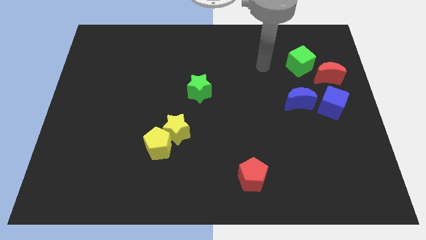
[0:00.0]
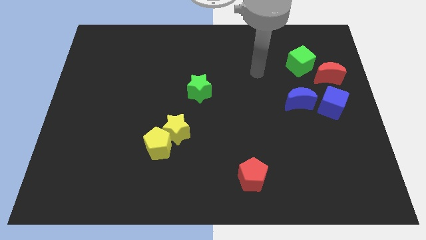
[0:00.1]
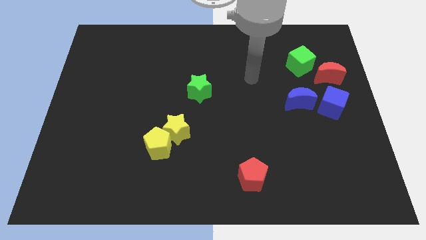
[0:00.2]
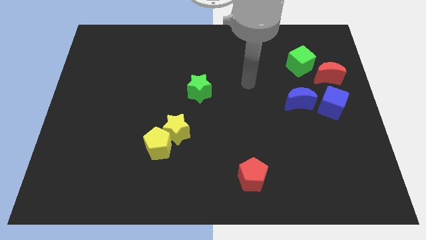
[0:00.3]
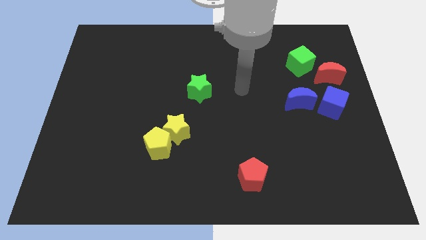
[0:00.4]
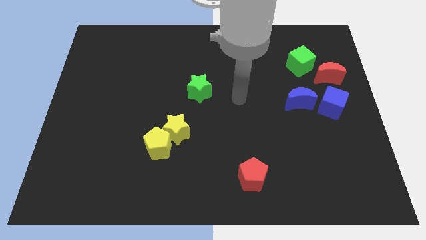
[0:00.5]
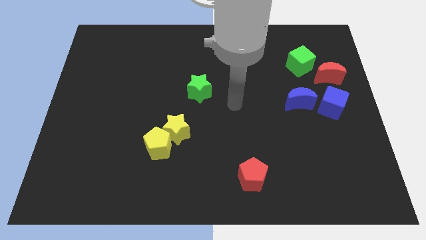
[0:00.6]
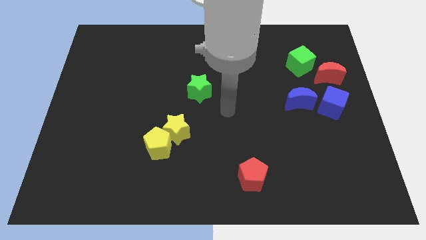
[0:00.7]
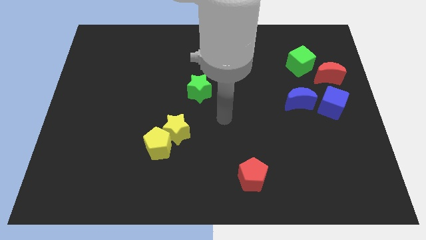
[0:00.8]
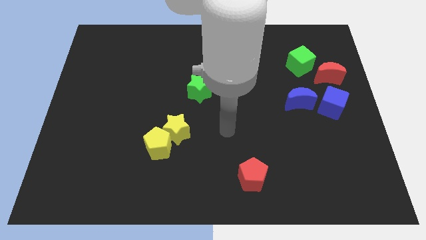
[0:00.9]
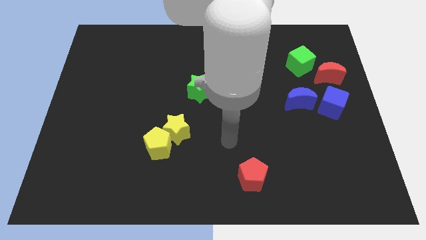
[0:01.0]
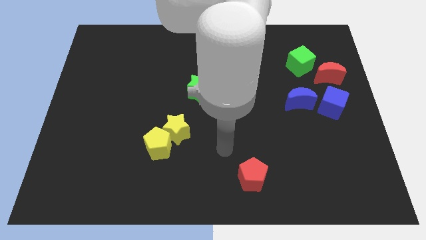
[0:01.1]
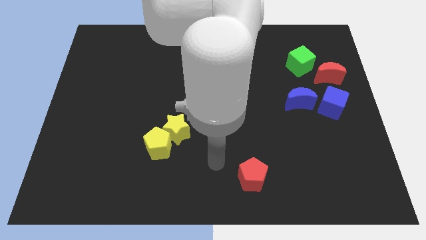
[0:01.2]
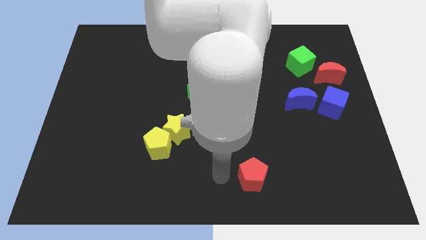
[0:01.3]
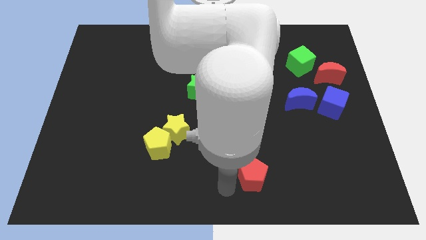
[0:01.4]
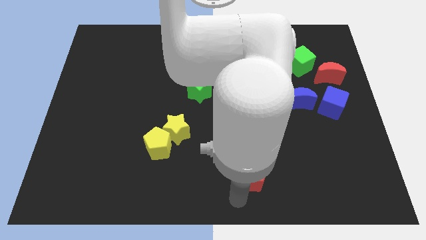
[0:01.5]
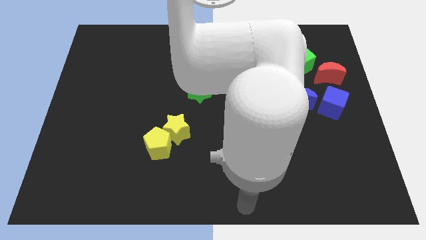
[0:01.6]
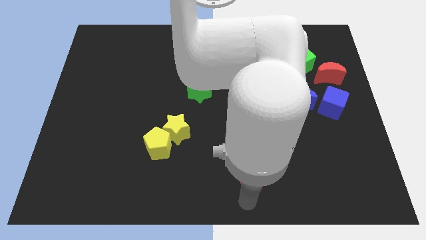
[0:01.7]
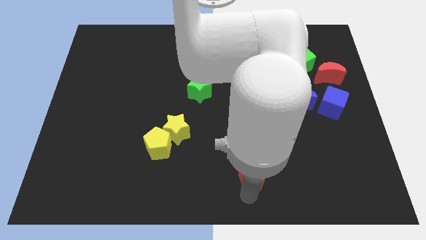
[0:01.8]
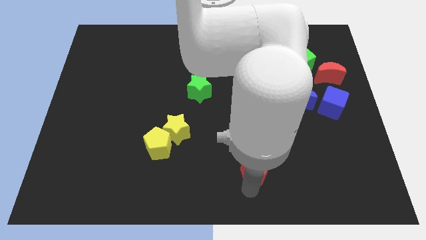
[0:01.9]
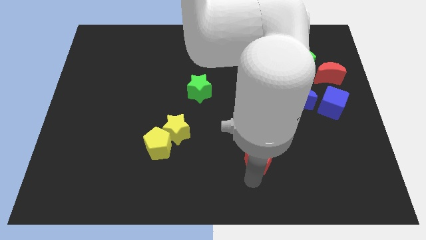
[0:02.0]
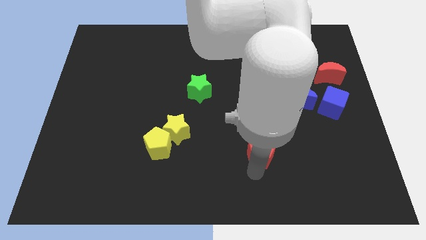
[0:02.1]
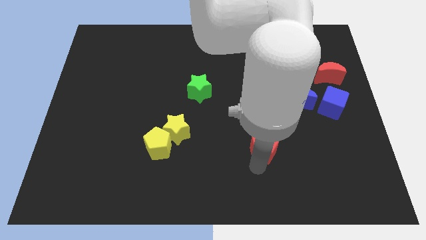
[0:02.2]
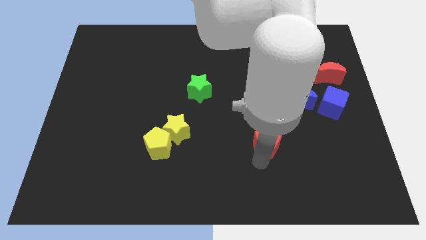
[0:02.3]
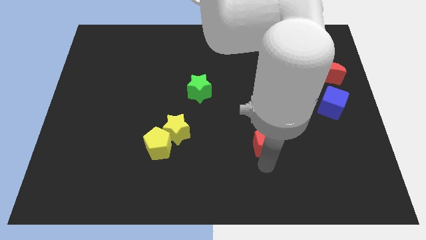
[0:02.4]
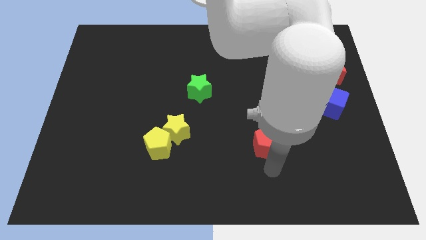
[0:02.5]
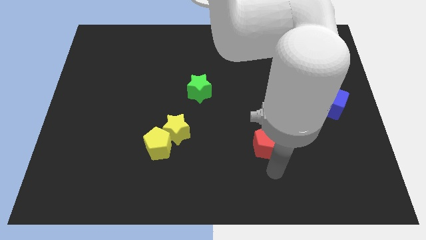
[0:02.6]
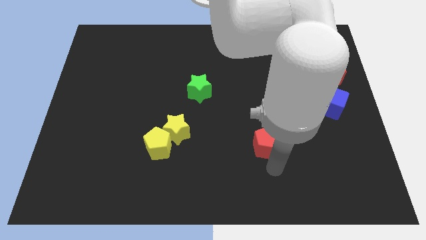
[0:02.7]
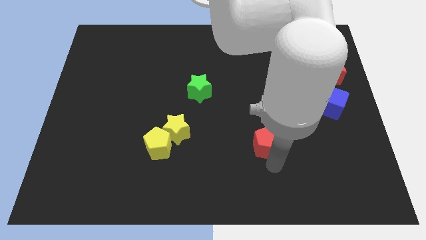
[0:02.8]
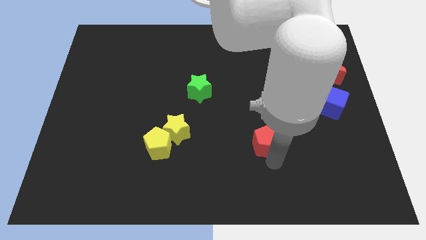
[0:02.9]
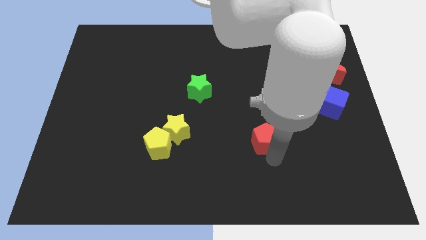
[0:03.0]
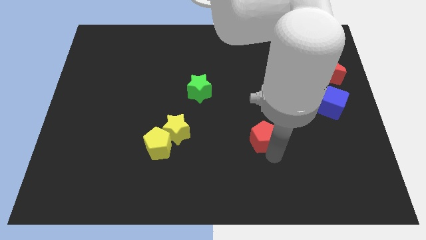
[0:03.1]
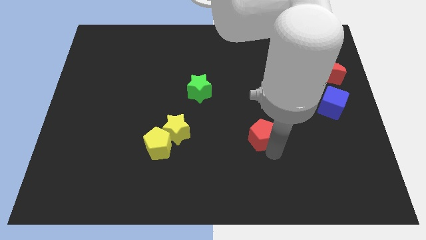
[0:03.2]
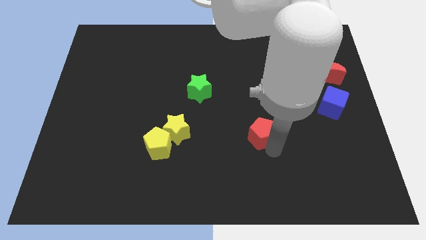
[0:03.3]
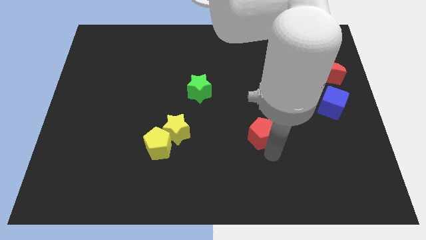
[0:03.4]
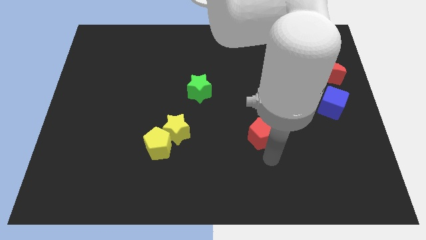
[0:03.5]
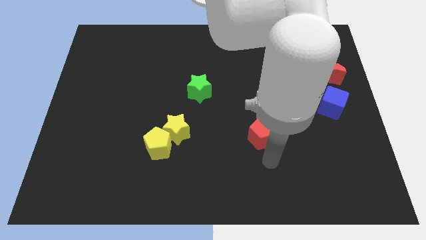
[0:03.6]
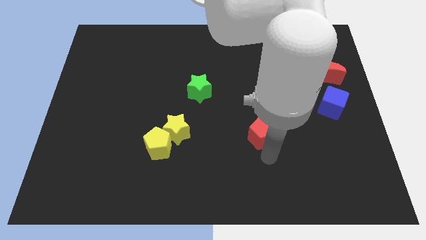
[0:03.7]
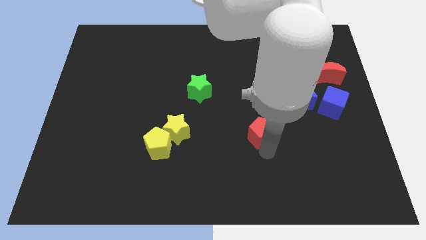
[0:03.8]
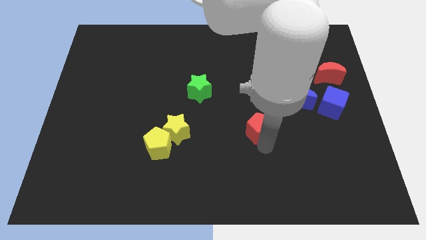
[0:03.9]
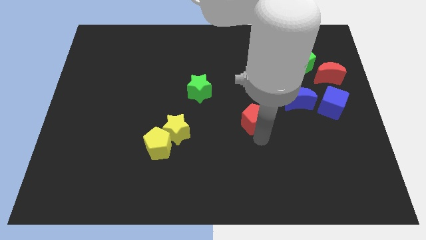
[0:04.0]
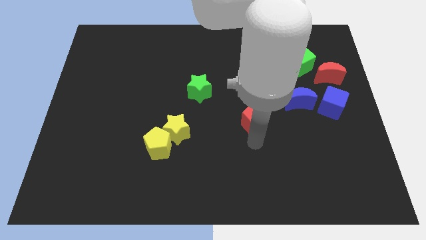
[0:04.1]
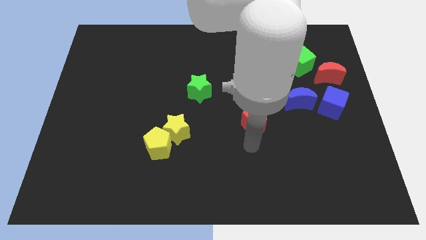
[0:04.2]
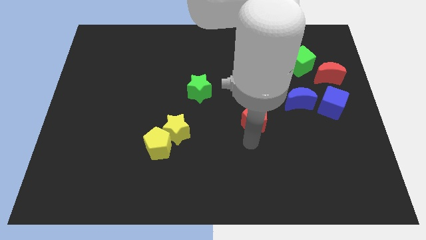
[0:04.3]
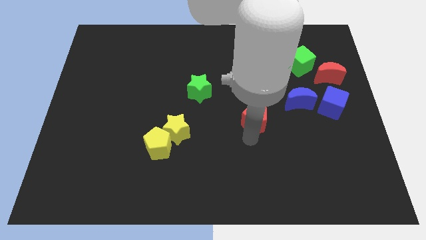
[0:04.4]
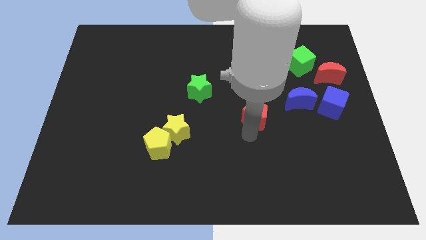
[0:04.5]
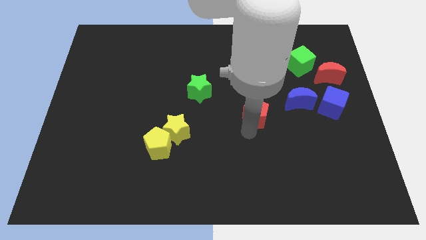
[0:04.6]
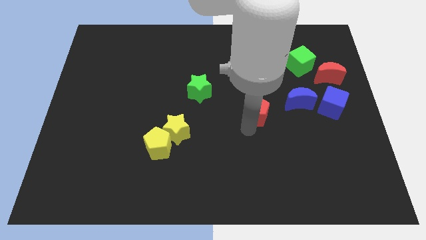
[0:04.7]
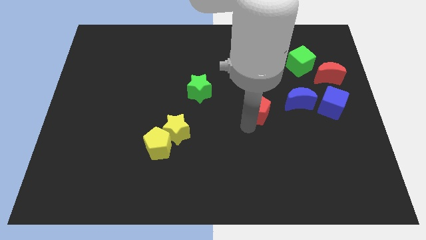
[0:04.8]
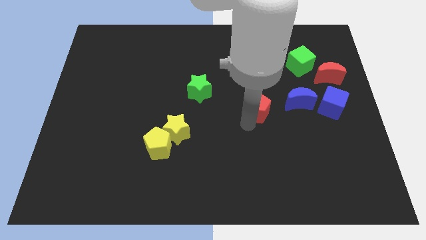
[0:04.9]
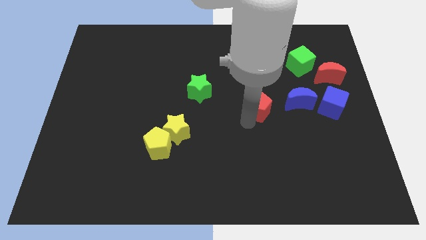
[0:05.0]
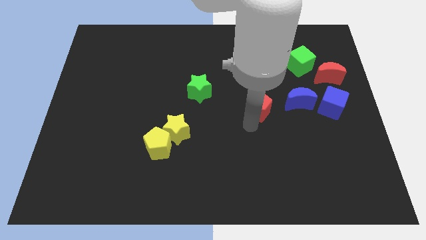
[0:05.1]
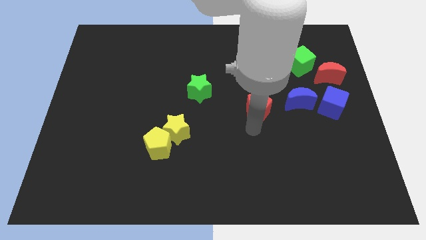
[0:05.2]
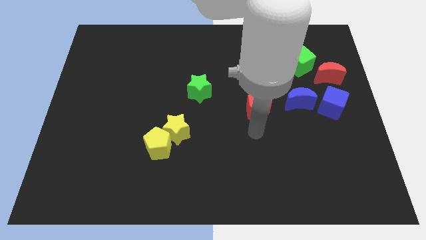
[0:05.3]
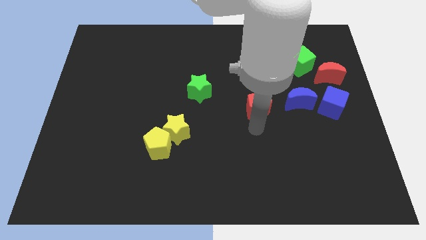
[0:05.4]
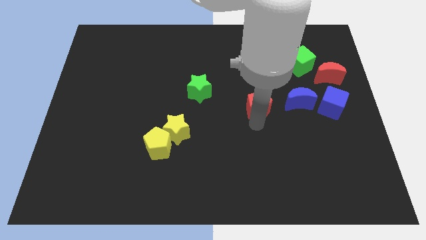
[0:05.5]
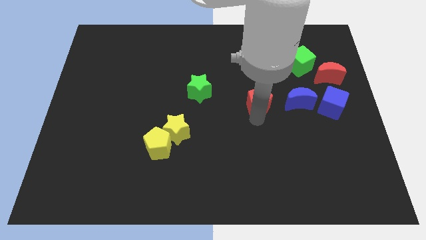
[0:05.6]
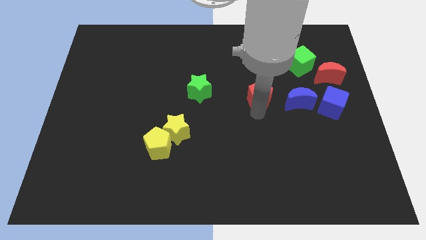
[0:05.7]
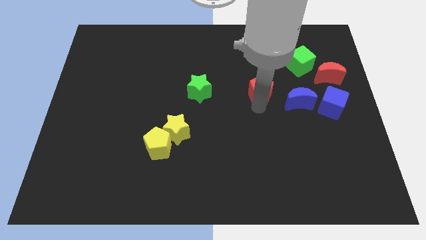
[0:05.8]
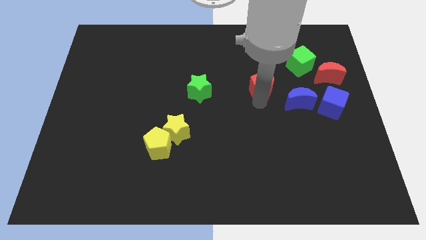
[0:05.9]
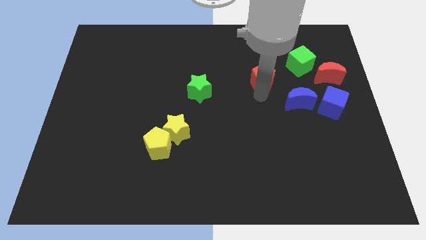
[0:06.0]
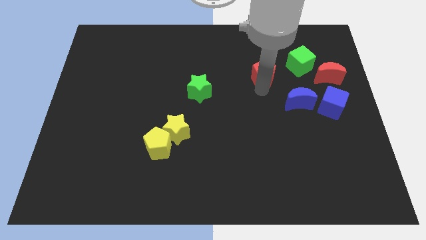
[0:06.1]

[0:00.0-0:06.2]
move the red pentagon to the left side of the green cube

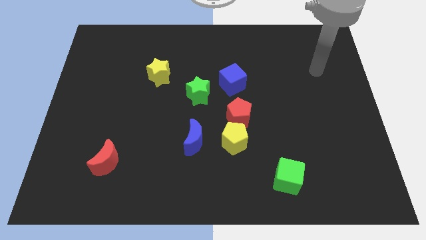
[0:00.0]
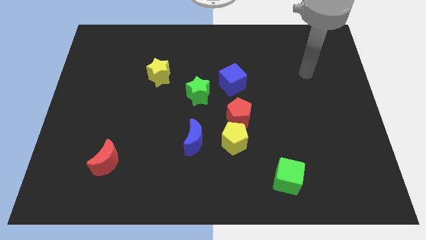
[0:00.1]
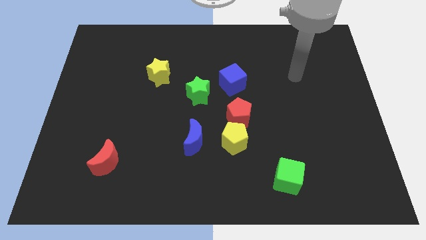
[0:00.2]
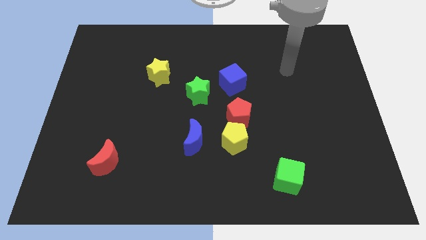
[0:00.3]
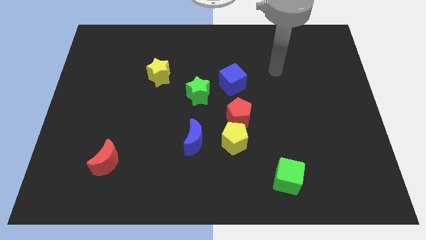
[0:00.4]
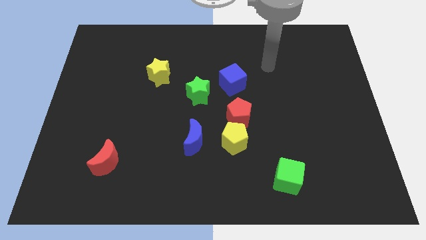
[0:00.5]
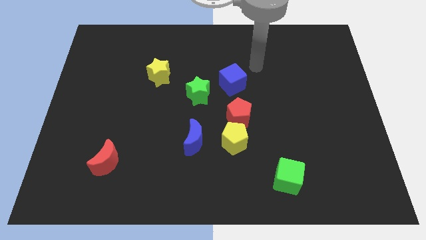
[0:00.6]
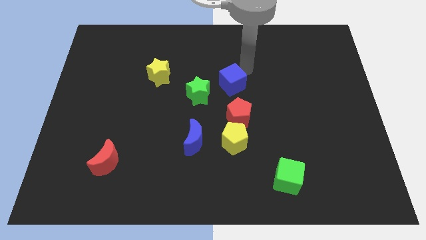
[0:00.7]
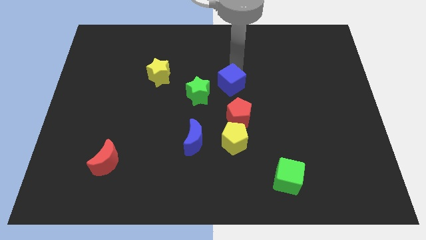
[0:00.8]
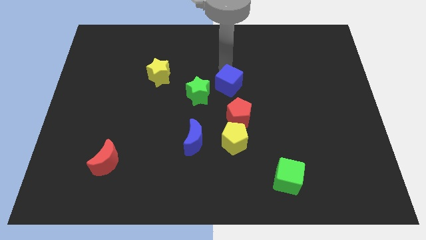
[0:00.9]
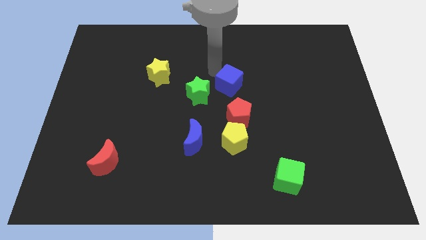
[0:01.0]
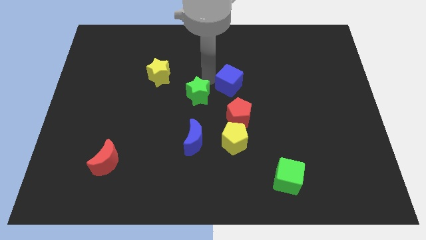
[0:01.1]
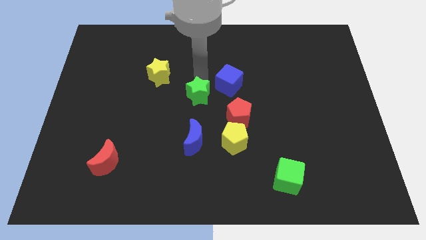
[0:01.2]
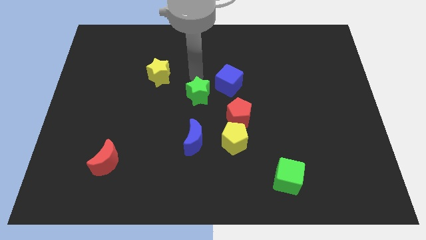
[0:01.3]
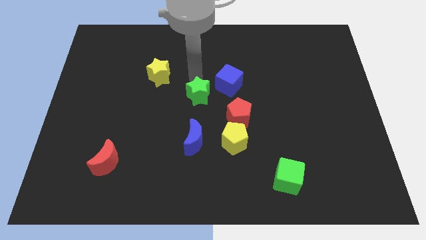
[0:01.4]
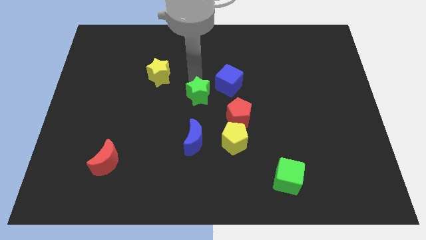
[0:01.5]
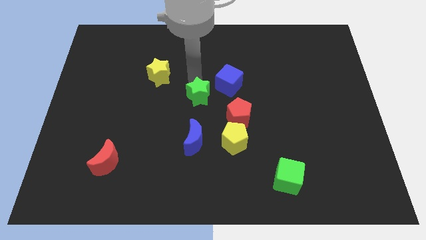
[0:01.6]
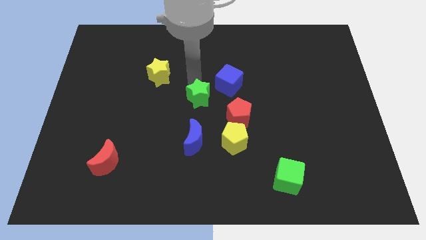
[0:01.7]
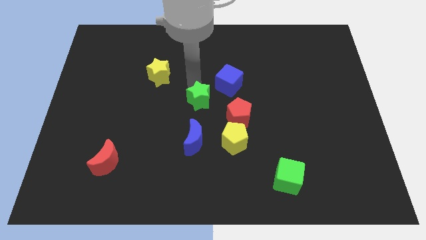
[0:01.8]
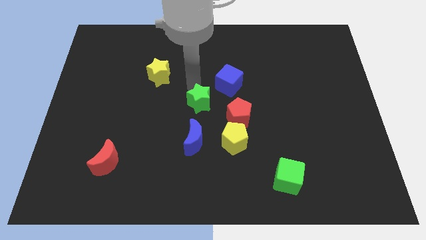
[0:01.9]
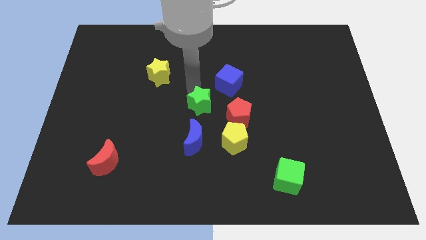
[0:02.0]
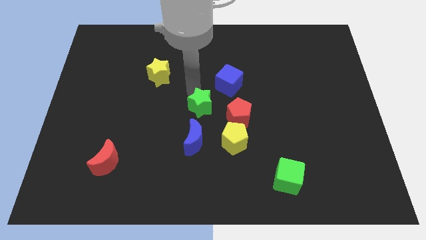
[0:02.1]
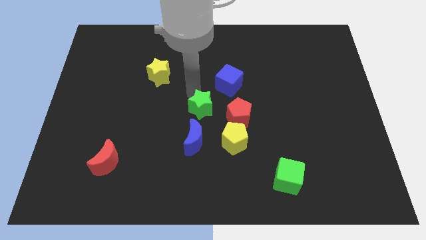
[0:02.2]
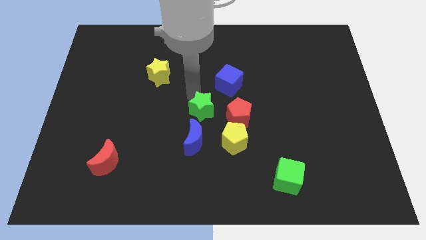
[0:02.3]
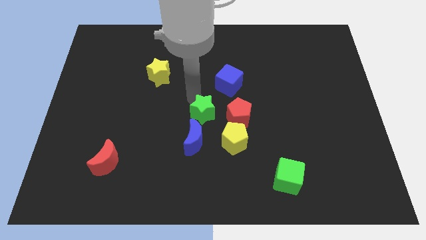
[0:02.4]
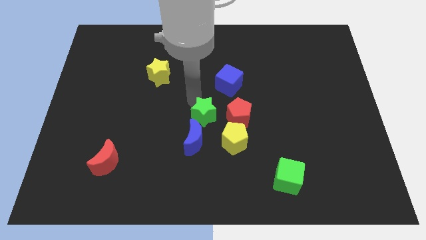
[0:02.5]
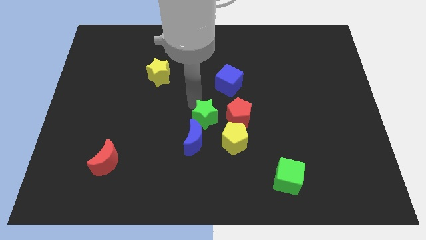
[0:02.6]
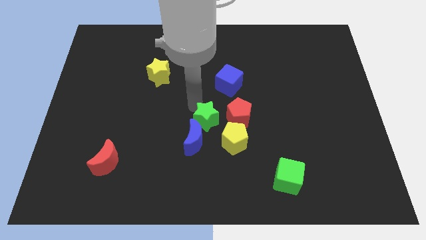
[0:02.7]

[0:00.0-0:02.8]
put the green star to the bottom left side of the red pentagon
